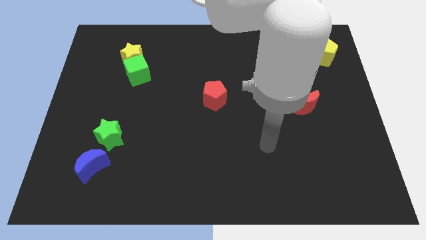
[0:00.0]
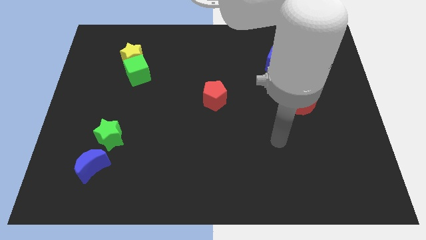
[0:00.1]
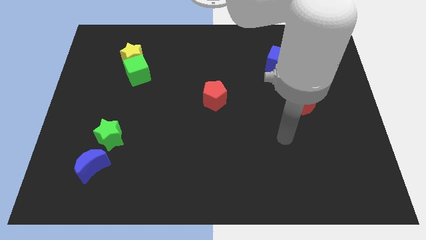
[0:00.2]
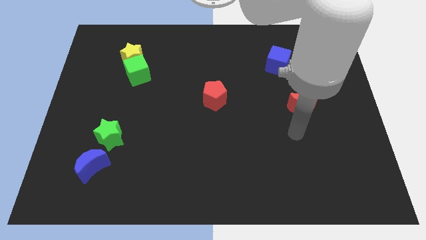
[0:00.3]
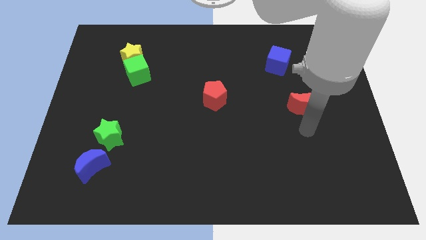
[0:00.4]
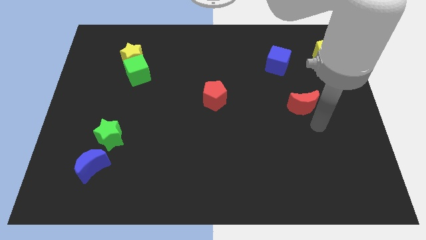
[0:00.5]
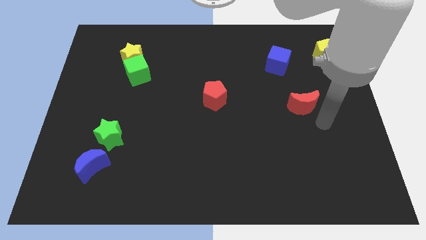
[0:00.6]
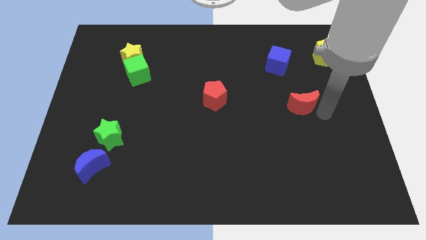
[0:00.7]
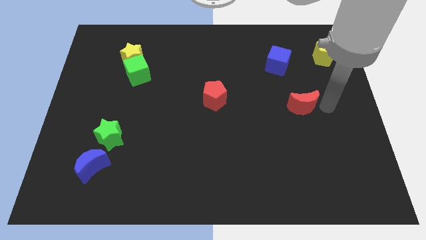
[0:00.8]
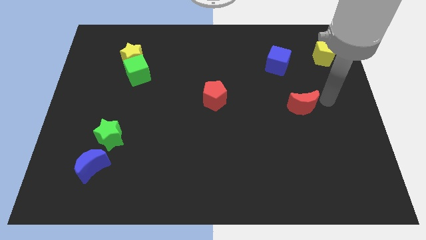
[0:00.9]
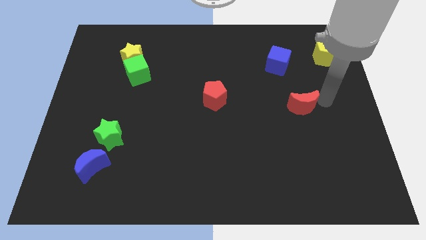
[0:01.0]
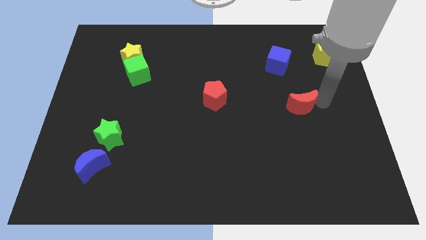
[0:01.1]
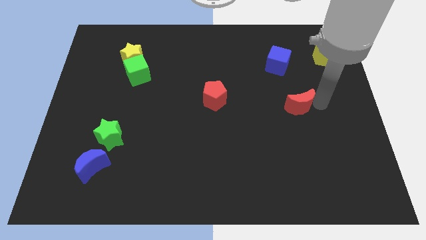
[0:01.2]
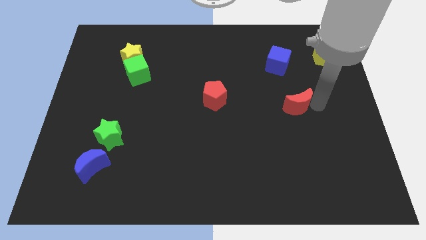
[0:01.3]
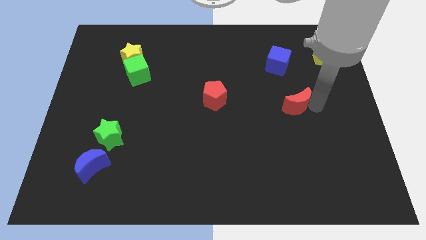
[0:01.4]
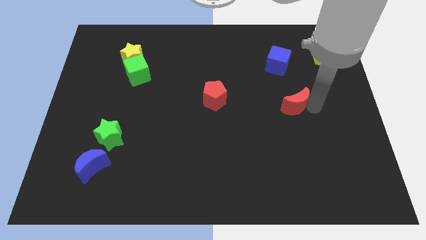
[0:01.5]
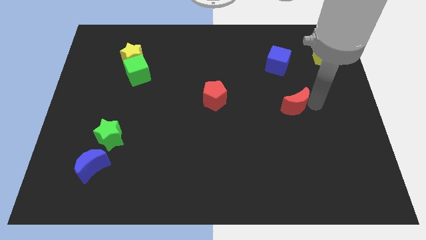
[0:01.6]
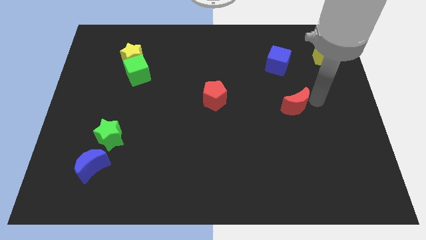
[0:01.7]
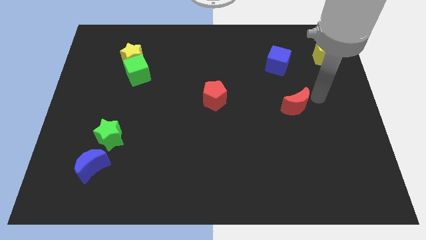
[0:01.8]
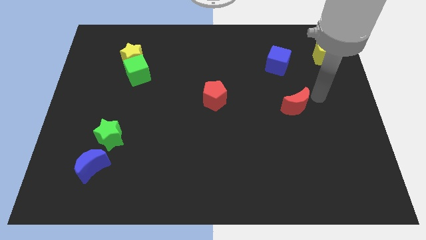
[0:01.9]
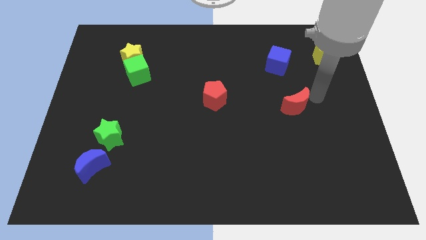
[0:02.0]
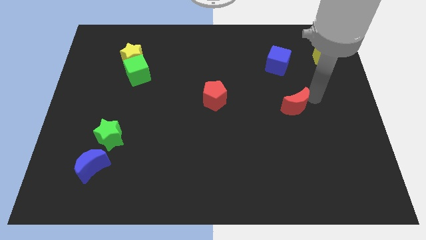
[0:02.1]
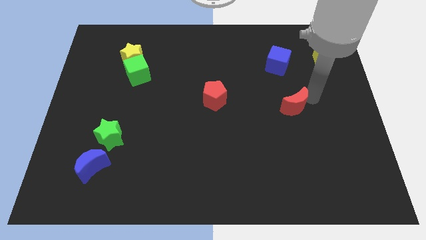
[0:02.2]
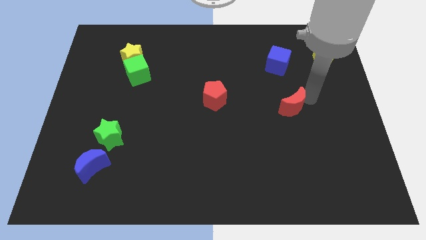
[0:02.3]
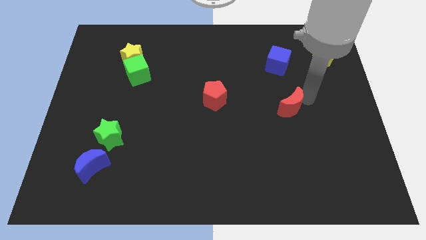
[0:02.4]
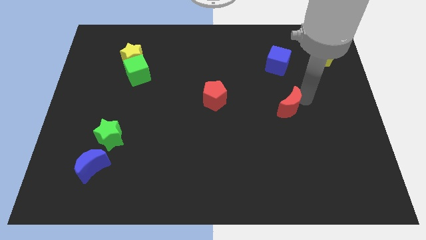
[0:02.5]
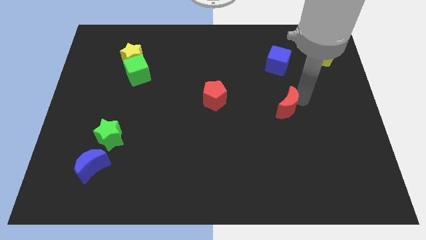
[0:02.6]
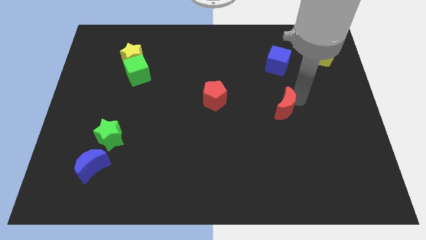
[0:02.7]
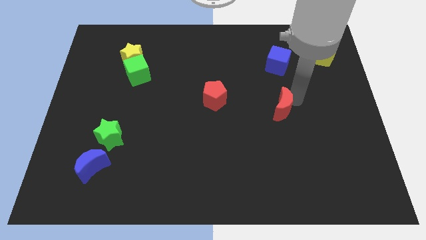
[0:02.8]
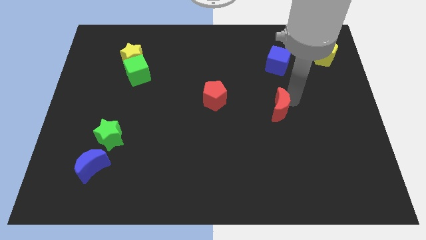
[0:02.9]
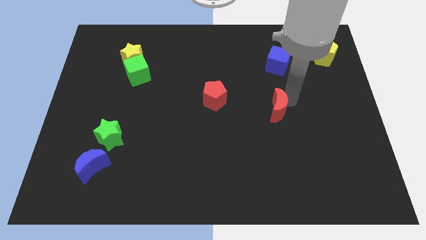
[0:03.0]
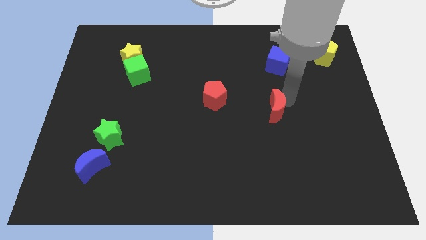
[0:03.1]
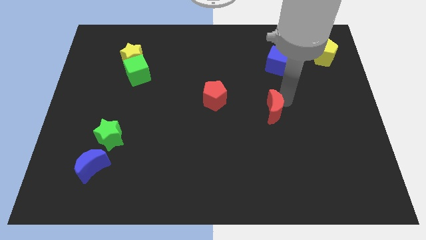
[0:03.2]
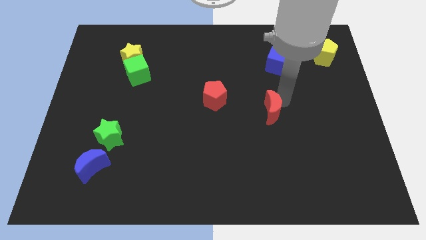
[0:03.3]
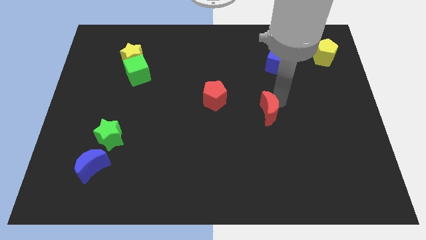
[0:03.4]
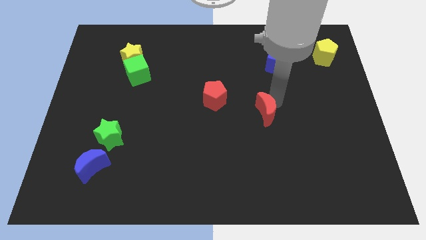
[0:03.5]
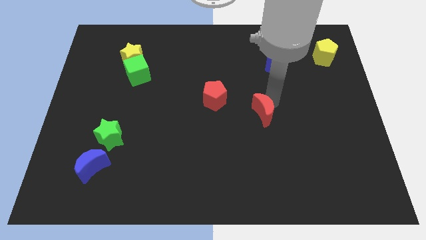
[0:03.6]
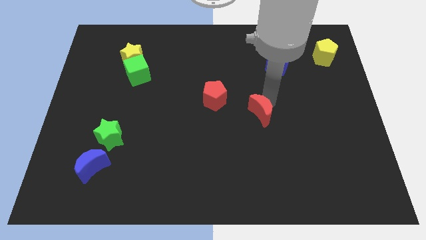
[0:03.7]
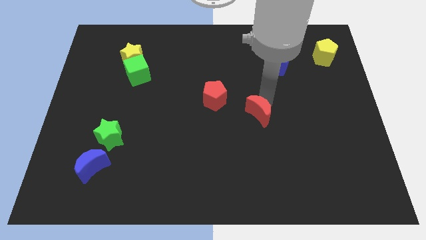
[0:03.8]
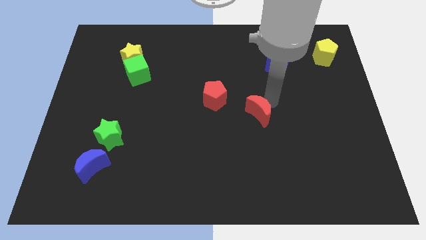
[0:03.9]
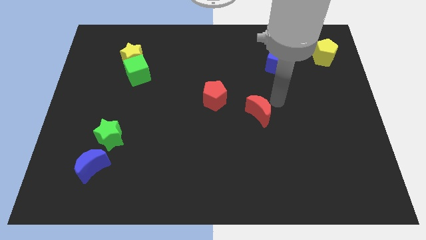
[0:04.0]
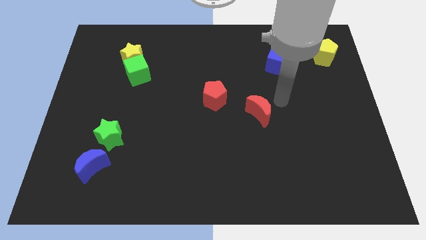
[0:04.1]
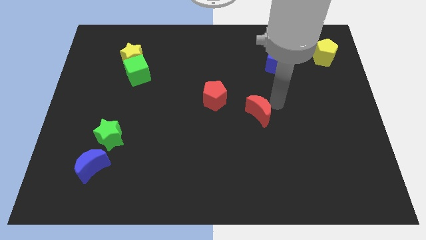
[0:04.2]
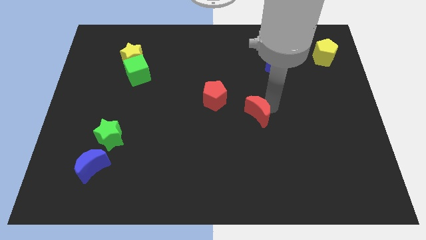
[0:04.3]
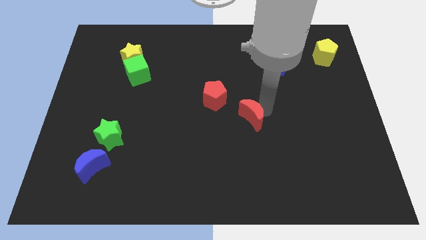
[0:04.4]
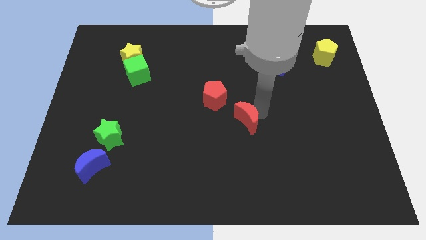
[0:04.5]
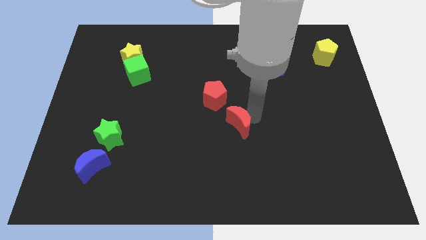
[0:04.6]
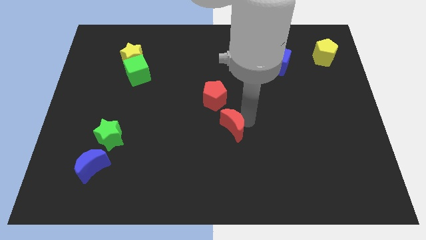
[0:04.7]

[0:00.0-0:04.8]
put the red moon below the red pentagon

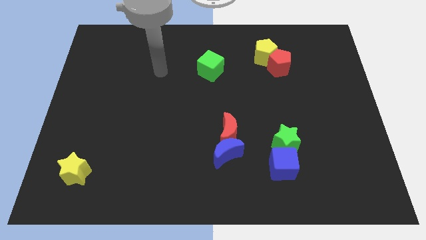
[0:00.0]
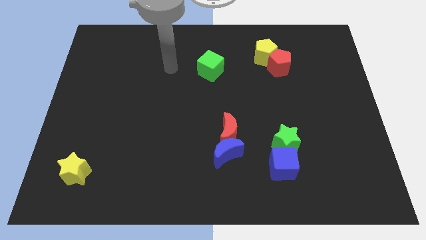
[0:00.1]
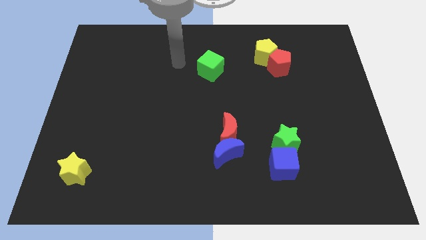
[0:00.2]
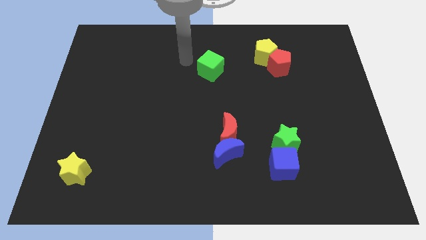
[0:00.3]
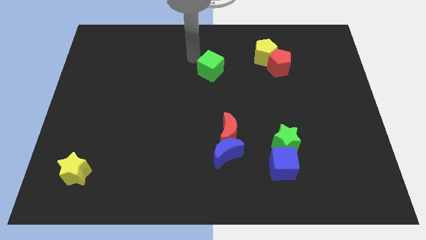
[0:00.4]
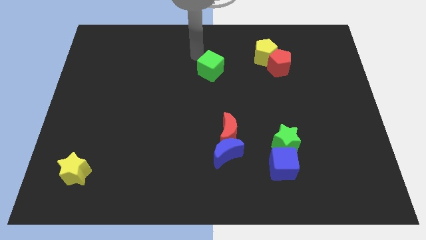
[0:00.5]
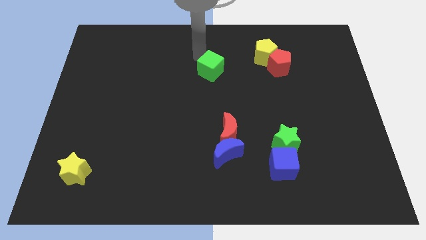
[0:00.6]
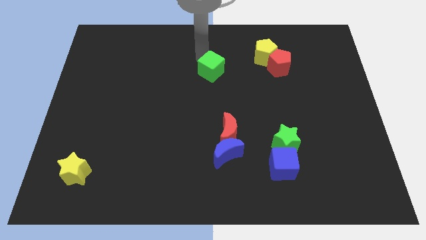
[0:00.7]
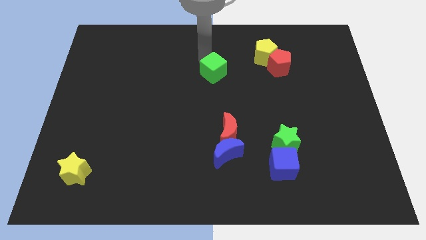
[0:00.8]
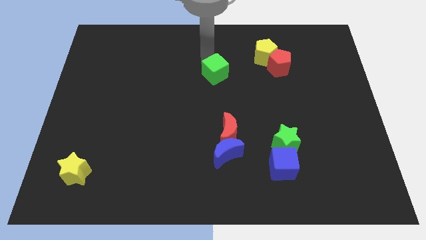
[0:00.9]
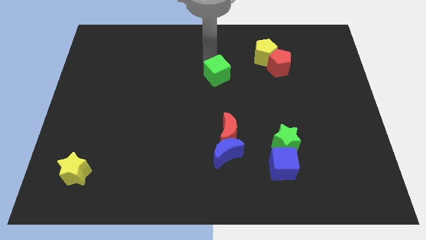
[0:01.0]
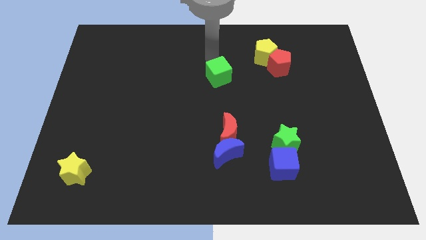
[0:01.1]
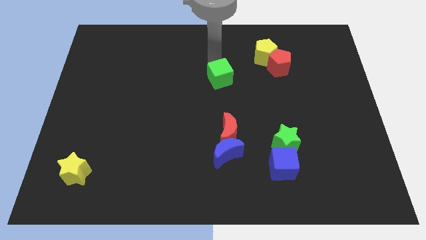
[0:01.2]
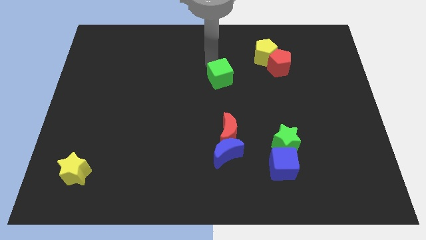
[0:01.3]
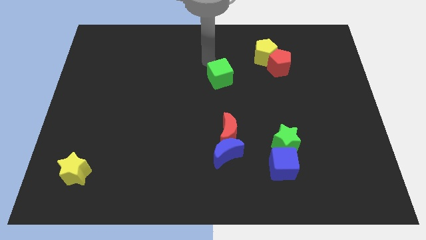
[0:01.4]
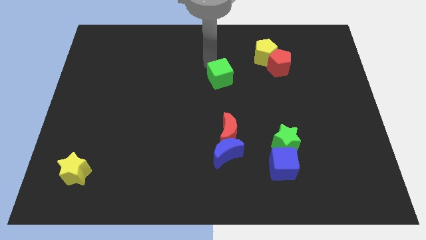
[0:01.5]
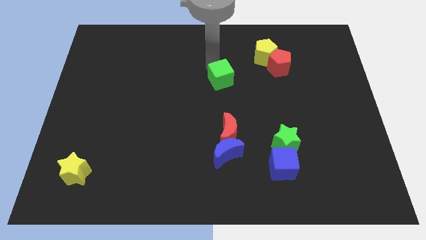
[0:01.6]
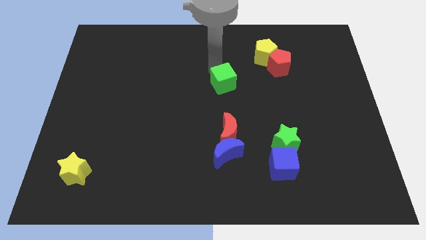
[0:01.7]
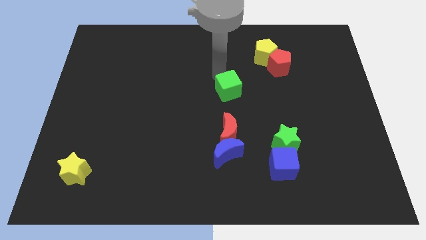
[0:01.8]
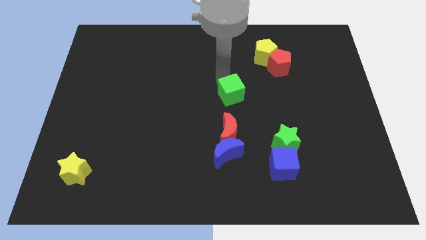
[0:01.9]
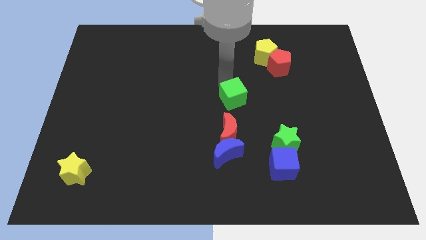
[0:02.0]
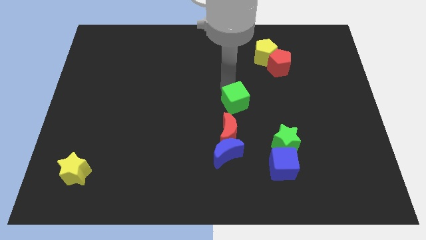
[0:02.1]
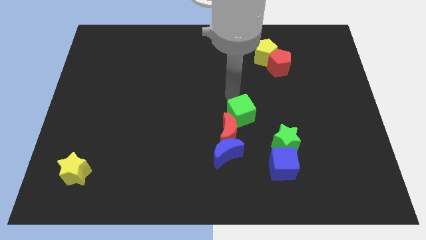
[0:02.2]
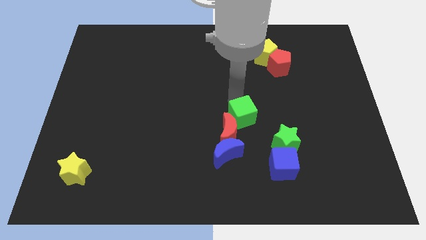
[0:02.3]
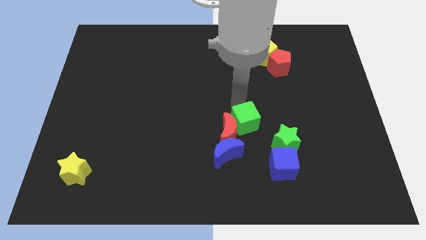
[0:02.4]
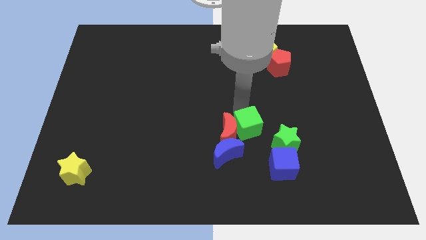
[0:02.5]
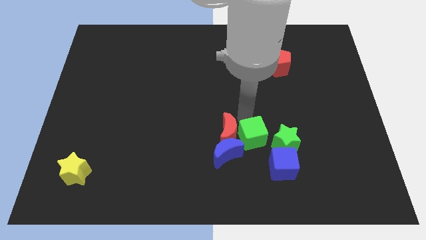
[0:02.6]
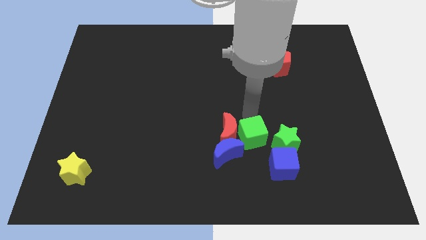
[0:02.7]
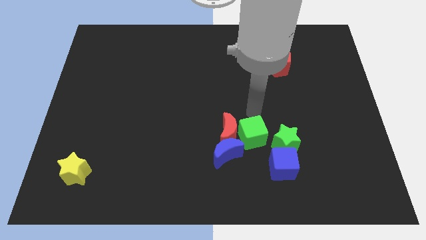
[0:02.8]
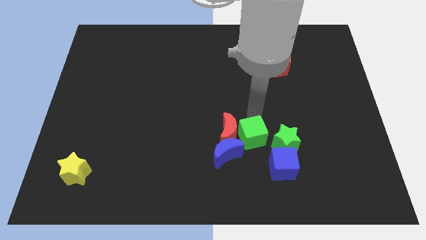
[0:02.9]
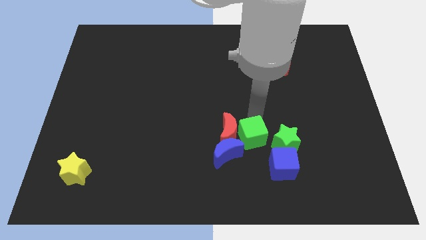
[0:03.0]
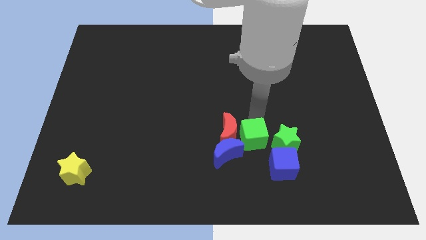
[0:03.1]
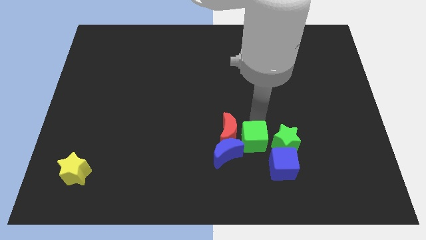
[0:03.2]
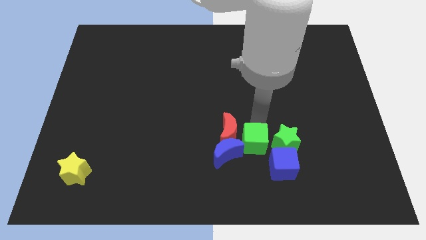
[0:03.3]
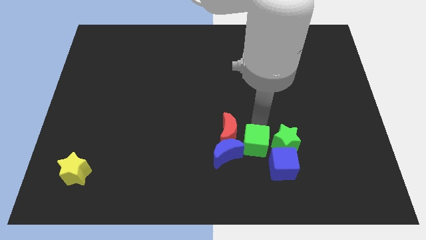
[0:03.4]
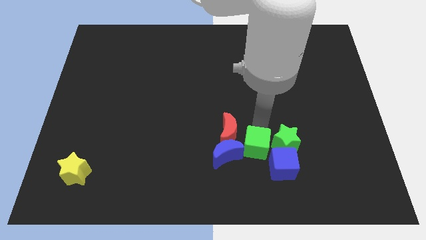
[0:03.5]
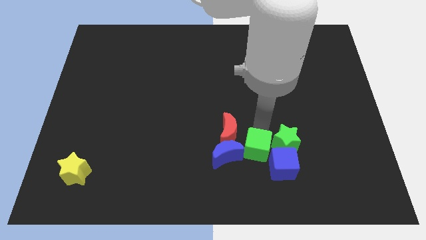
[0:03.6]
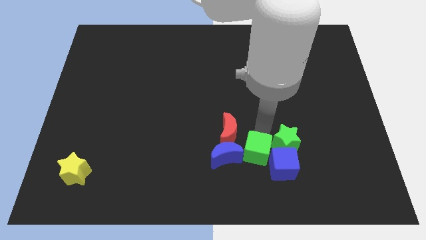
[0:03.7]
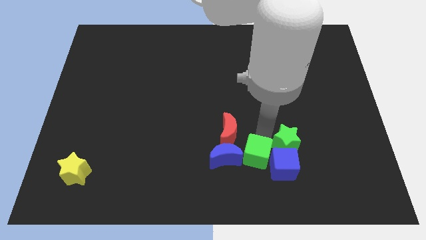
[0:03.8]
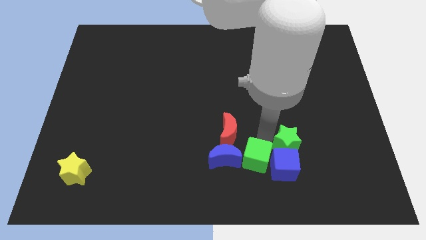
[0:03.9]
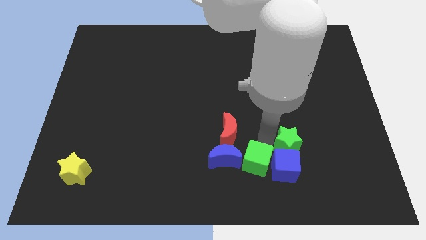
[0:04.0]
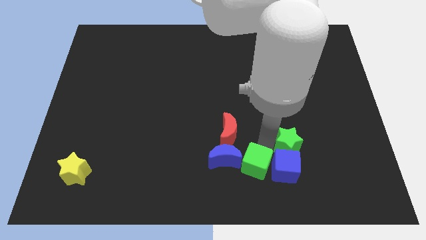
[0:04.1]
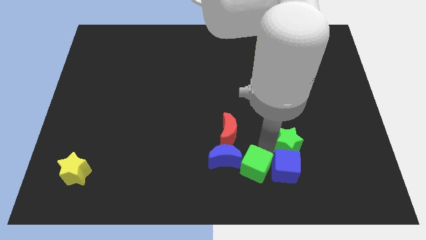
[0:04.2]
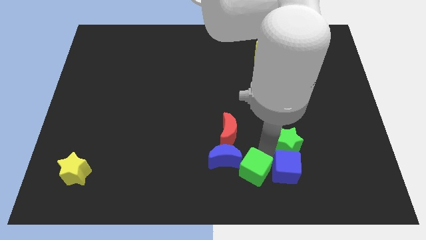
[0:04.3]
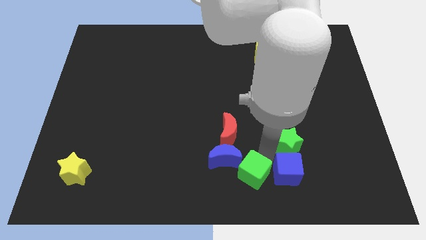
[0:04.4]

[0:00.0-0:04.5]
push the green cube to the bottom of the red moon
